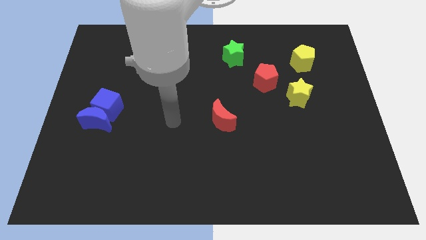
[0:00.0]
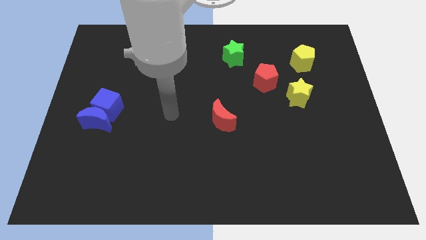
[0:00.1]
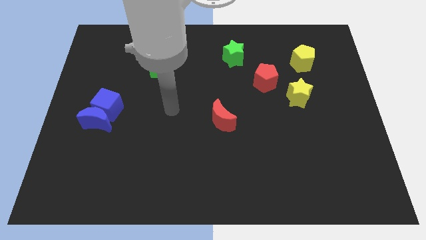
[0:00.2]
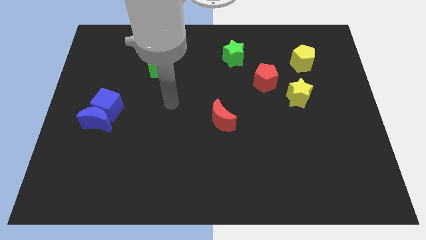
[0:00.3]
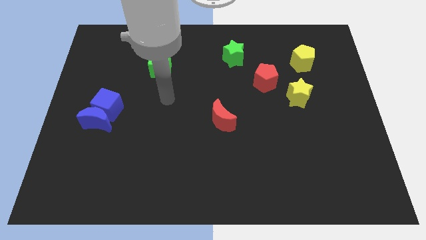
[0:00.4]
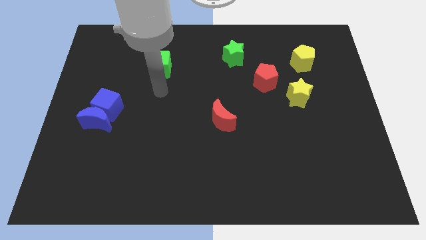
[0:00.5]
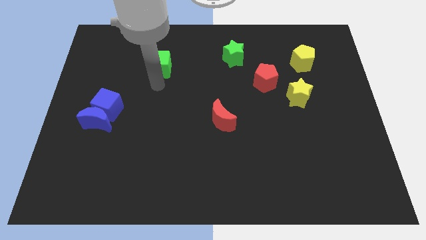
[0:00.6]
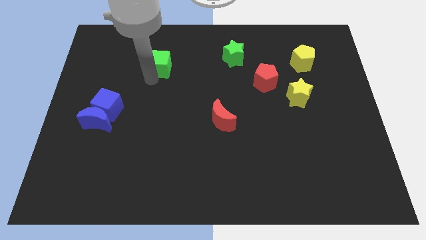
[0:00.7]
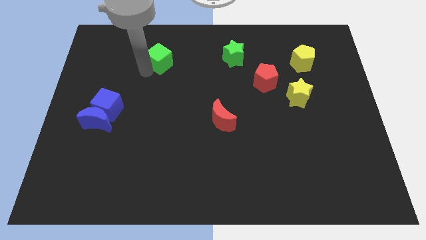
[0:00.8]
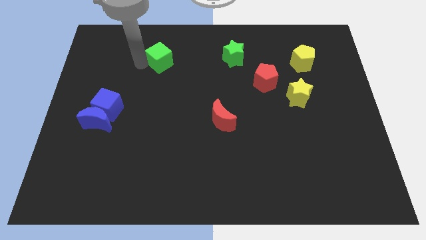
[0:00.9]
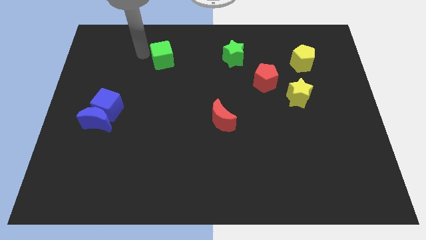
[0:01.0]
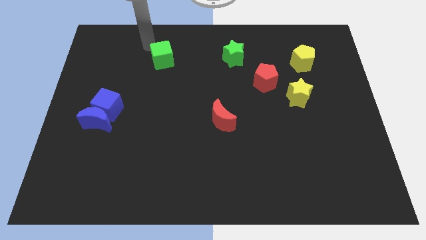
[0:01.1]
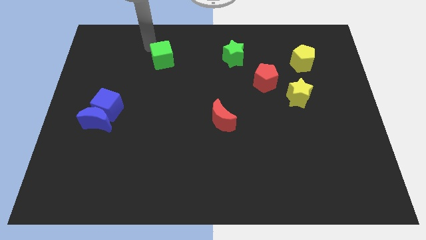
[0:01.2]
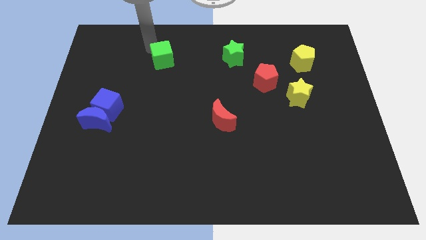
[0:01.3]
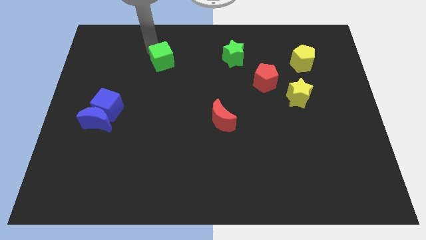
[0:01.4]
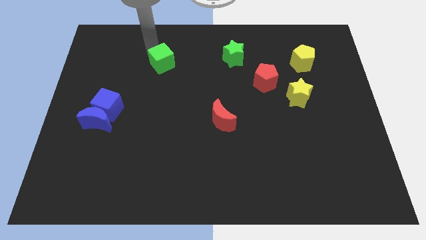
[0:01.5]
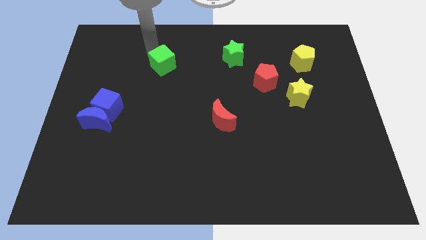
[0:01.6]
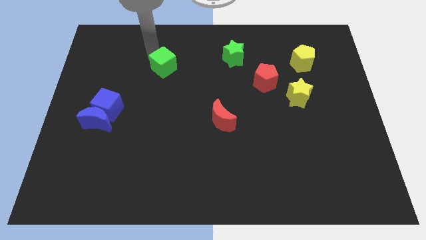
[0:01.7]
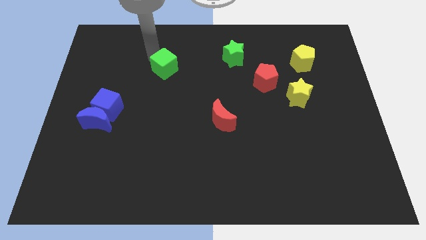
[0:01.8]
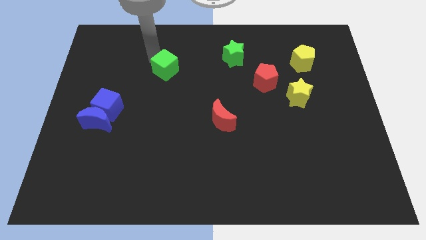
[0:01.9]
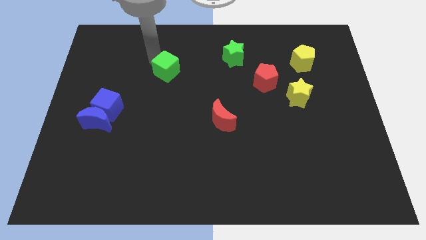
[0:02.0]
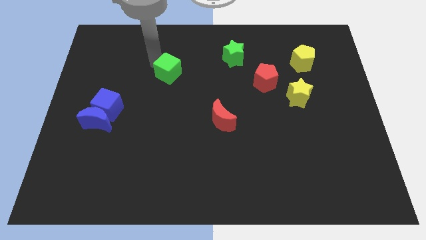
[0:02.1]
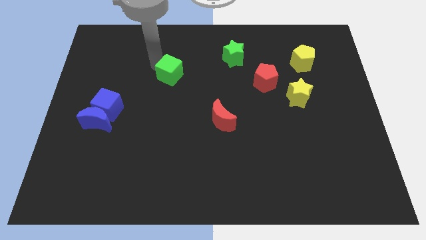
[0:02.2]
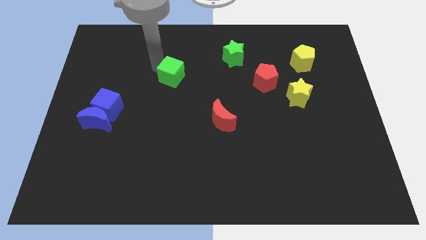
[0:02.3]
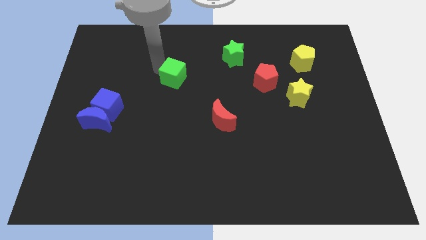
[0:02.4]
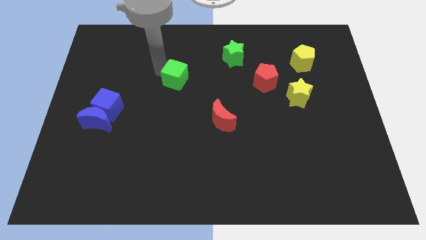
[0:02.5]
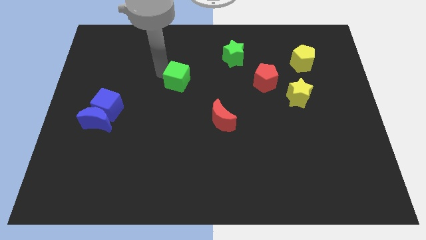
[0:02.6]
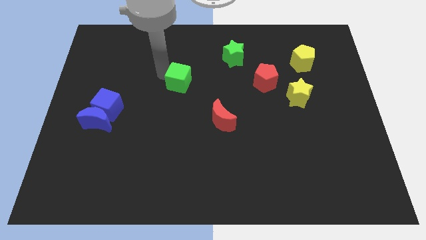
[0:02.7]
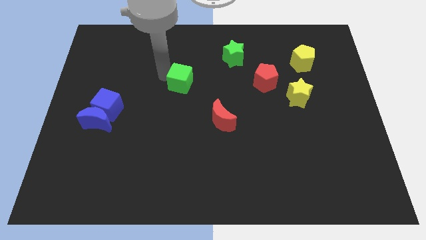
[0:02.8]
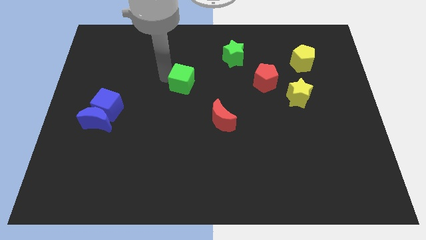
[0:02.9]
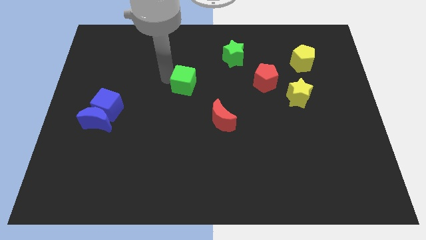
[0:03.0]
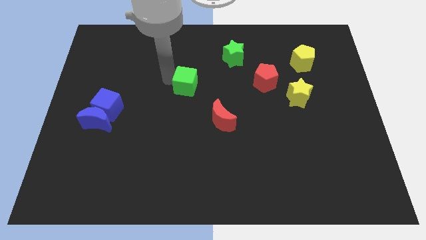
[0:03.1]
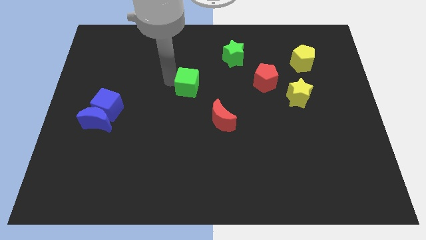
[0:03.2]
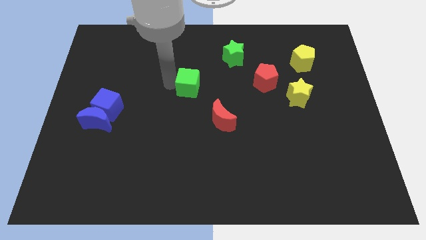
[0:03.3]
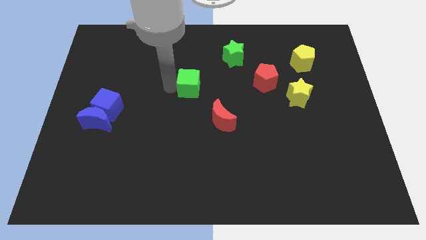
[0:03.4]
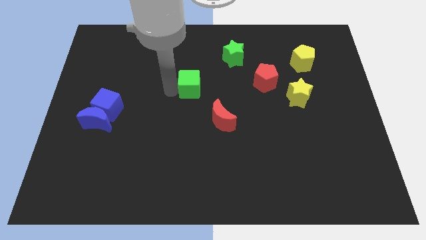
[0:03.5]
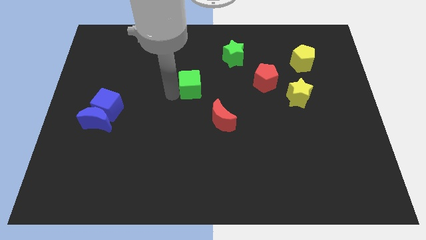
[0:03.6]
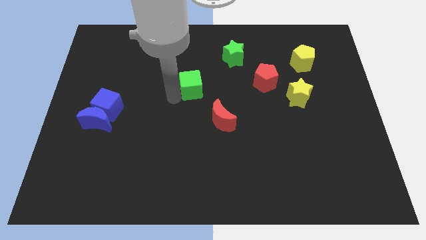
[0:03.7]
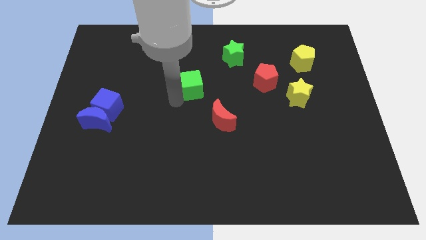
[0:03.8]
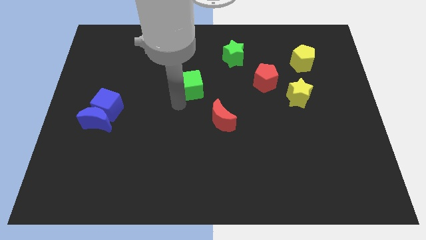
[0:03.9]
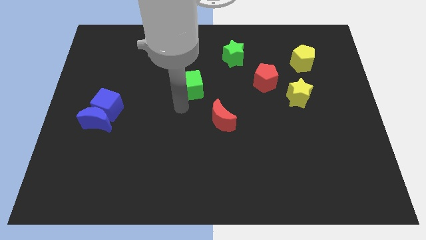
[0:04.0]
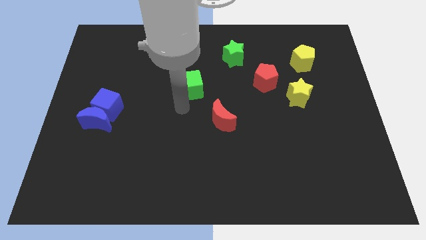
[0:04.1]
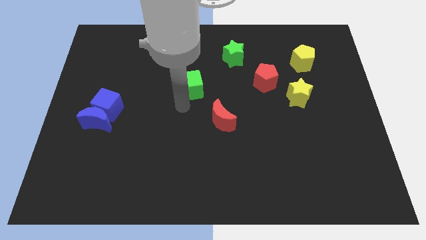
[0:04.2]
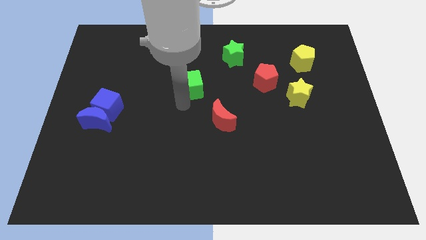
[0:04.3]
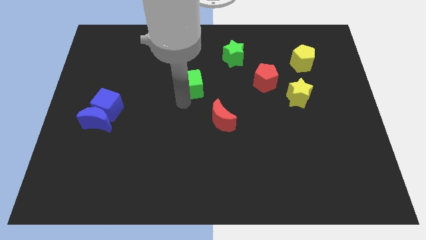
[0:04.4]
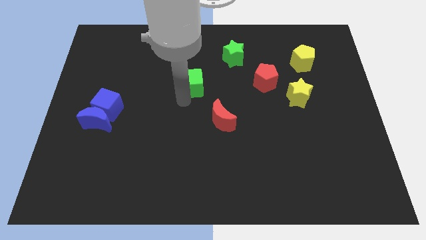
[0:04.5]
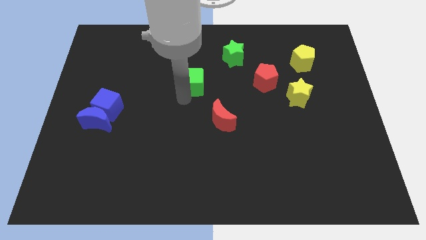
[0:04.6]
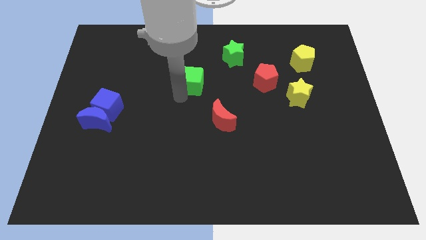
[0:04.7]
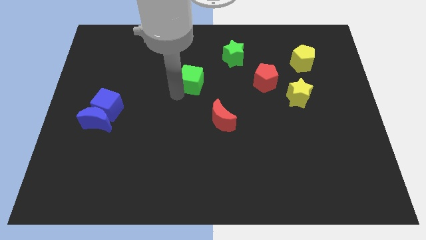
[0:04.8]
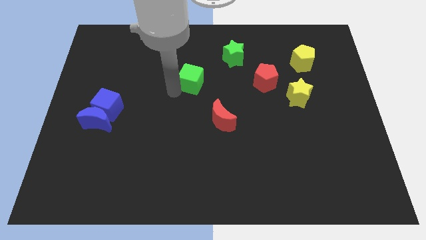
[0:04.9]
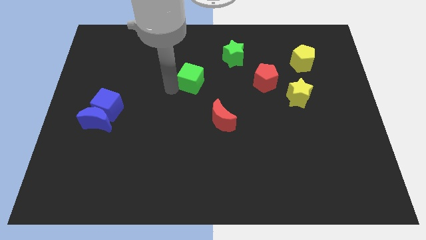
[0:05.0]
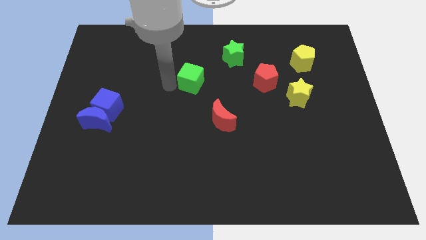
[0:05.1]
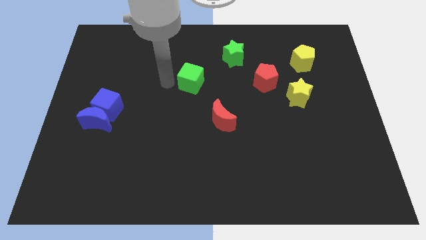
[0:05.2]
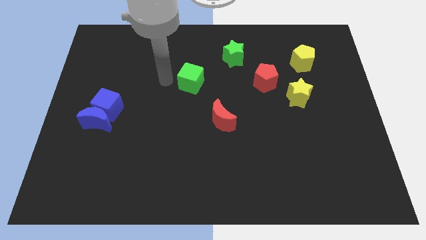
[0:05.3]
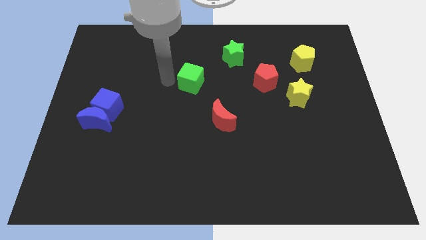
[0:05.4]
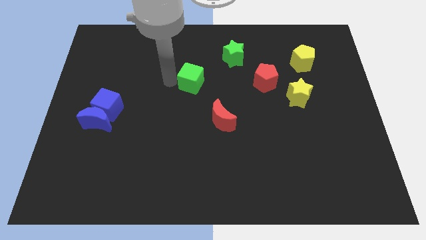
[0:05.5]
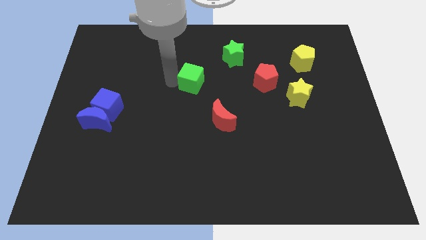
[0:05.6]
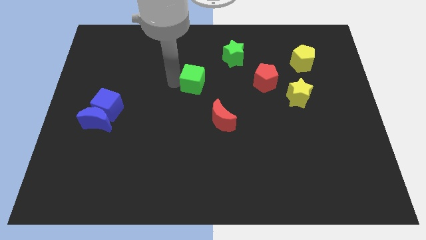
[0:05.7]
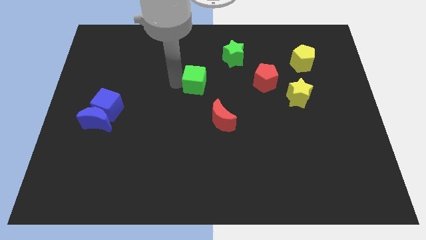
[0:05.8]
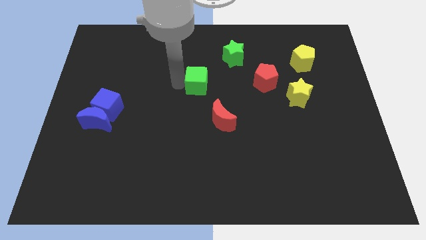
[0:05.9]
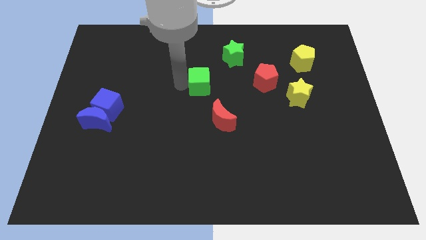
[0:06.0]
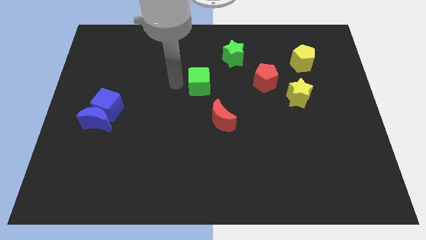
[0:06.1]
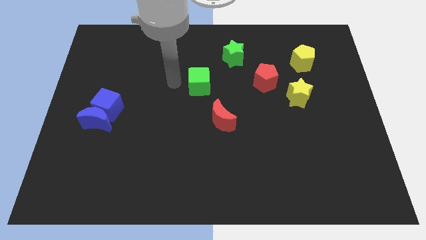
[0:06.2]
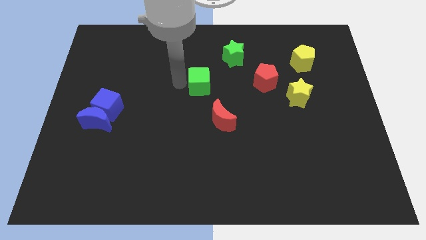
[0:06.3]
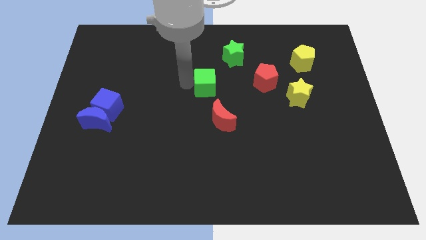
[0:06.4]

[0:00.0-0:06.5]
put the green cube to the top of the red moon

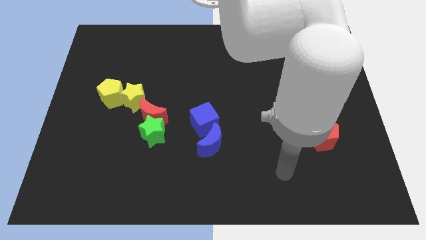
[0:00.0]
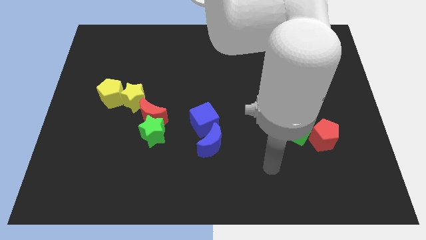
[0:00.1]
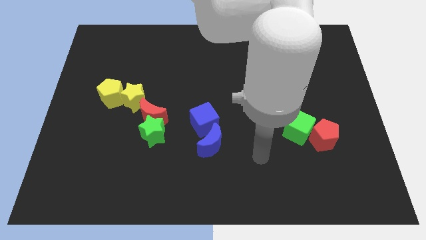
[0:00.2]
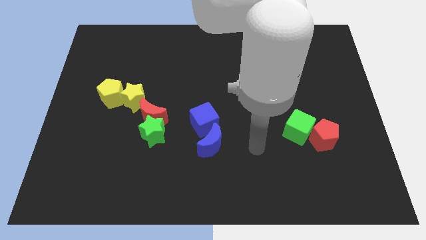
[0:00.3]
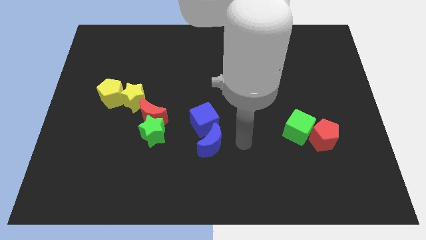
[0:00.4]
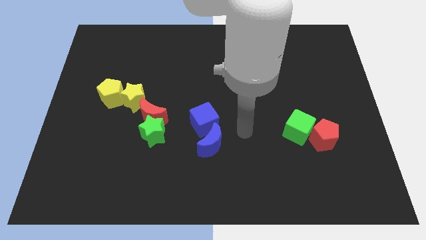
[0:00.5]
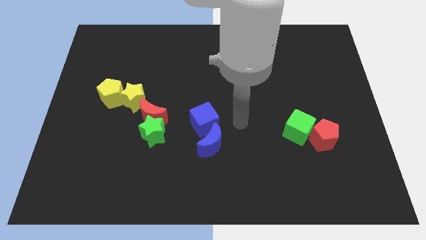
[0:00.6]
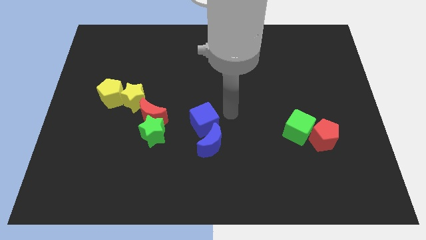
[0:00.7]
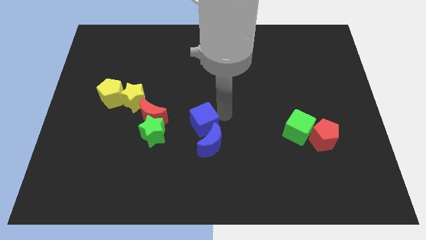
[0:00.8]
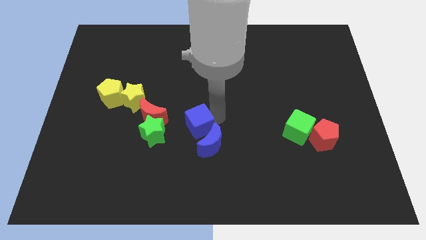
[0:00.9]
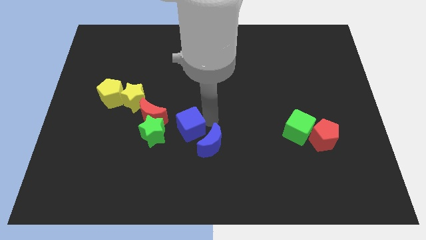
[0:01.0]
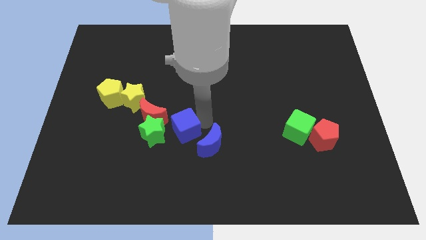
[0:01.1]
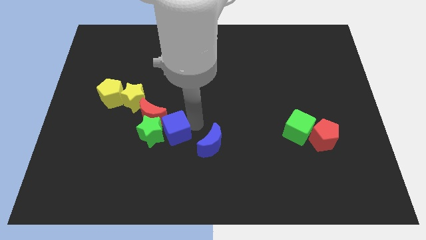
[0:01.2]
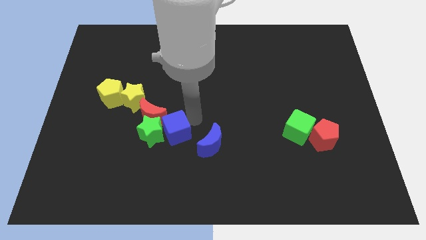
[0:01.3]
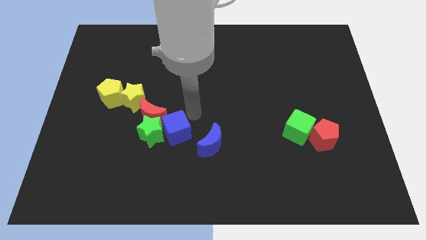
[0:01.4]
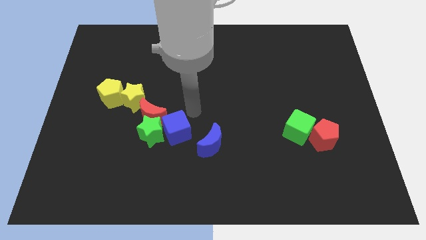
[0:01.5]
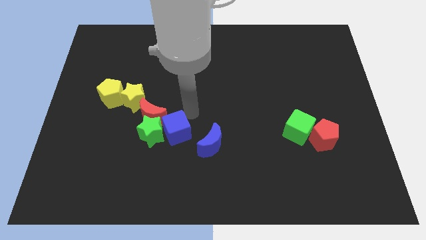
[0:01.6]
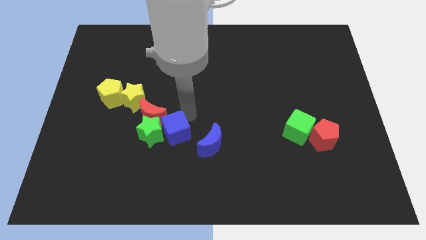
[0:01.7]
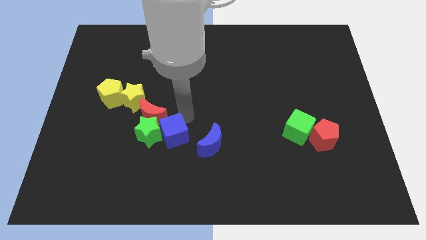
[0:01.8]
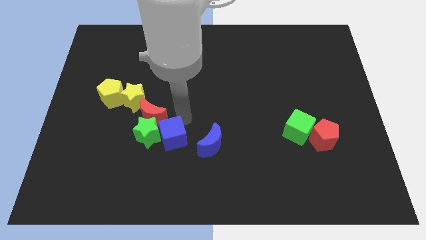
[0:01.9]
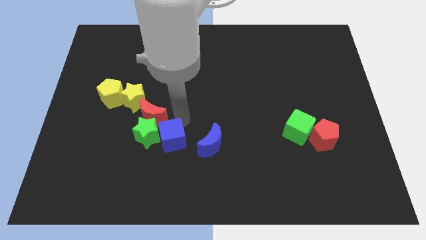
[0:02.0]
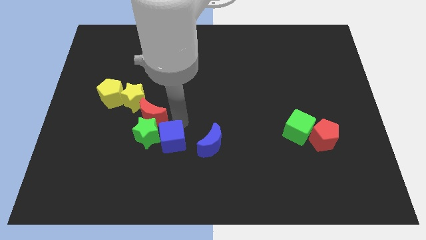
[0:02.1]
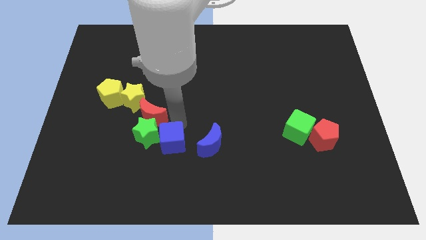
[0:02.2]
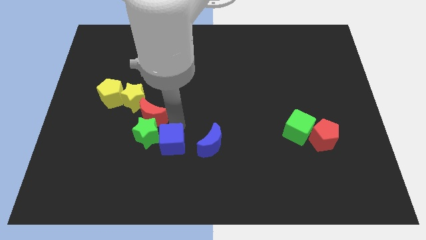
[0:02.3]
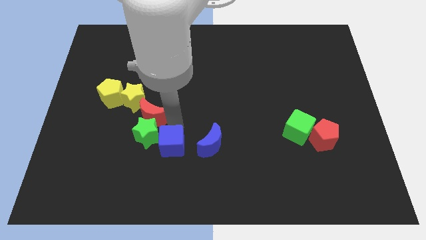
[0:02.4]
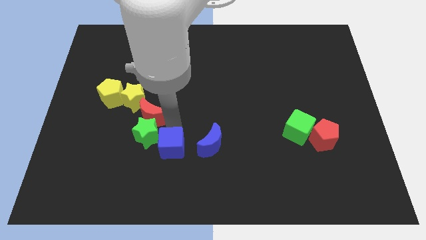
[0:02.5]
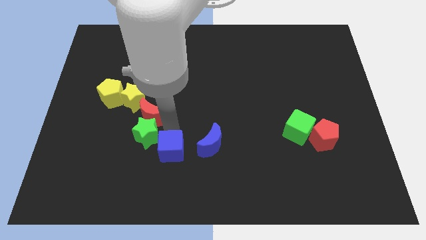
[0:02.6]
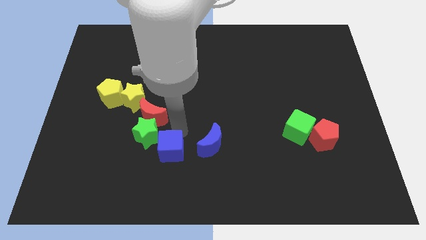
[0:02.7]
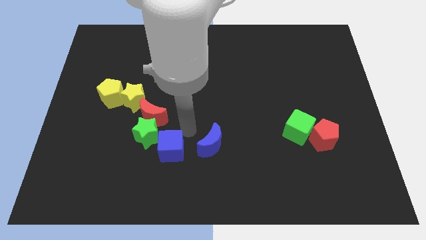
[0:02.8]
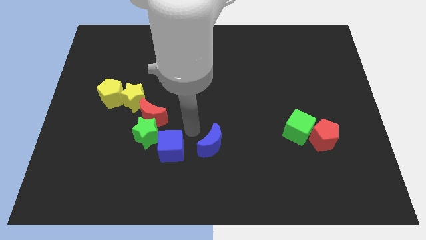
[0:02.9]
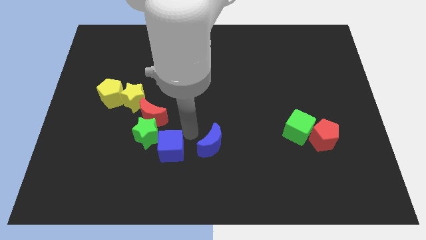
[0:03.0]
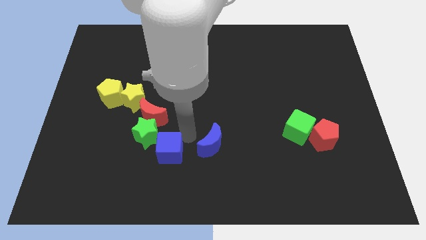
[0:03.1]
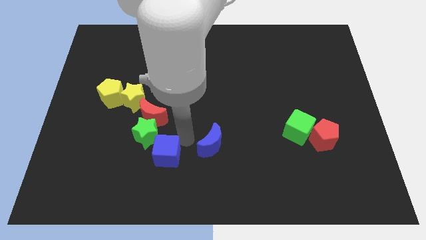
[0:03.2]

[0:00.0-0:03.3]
put the blue cube to the bottom of the green star
